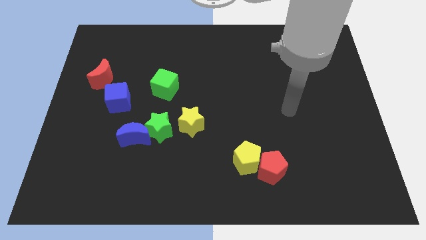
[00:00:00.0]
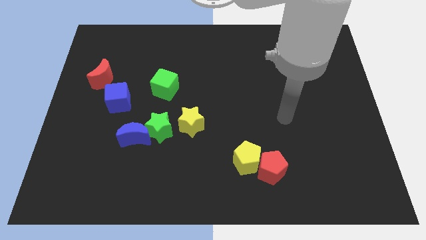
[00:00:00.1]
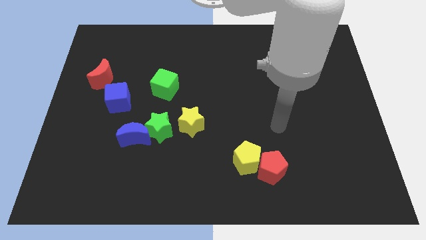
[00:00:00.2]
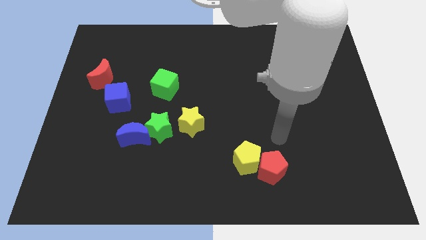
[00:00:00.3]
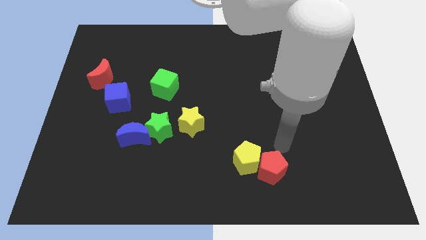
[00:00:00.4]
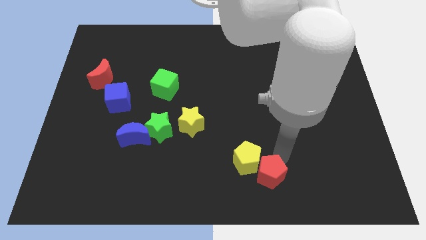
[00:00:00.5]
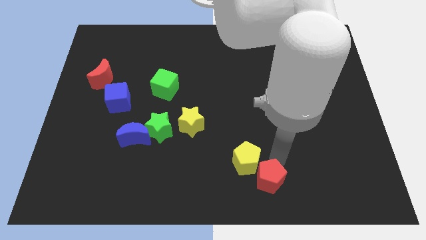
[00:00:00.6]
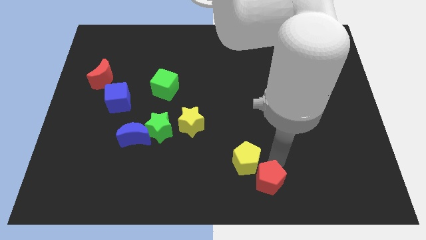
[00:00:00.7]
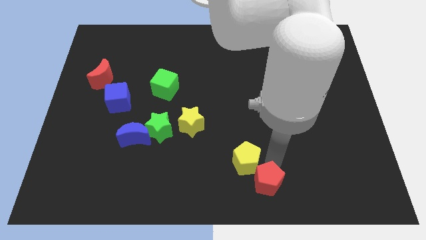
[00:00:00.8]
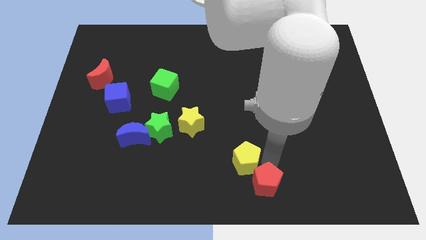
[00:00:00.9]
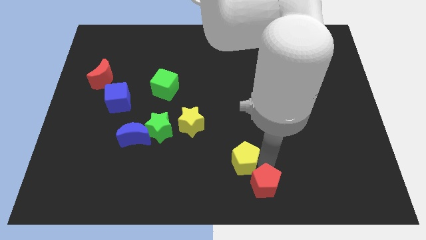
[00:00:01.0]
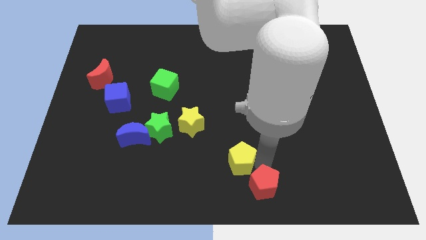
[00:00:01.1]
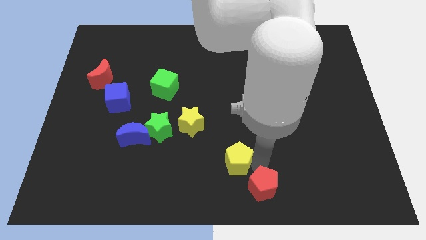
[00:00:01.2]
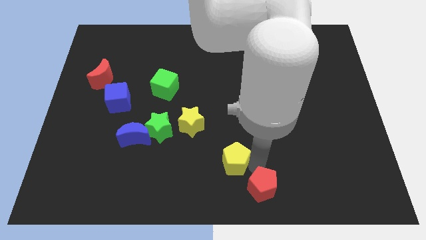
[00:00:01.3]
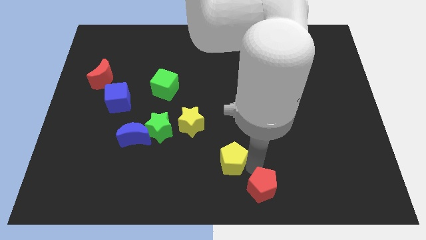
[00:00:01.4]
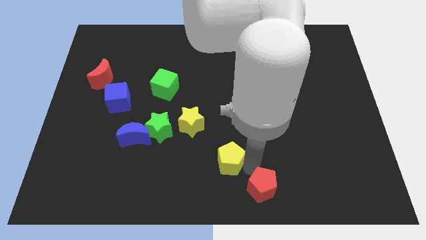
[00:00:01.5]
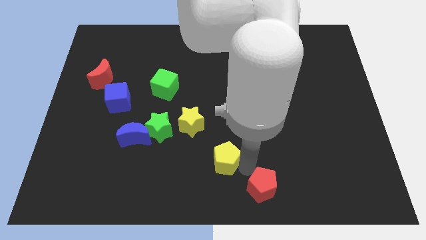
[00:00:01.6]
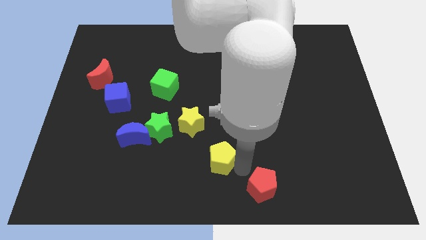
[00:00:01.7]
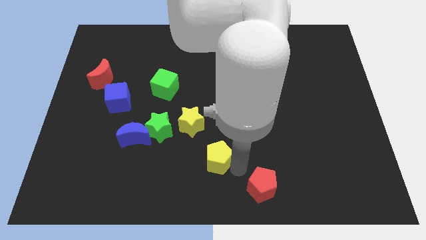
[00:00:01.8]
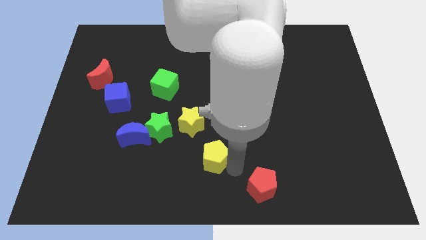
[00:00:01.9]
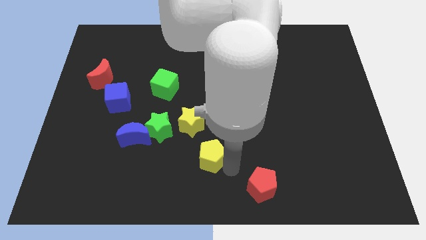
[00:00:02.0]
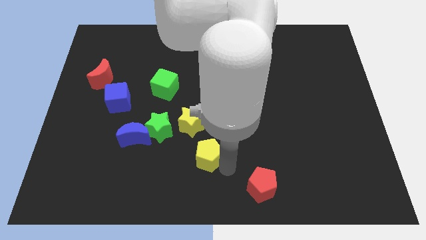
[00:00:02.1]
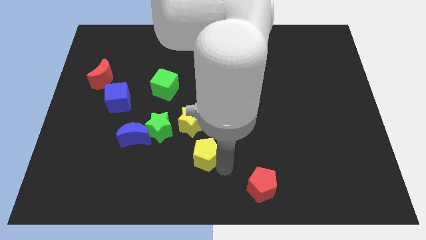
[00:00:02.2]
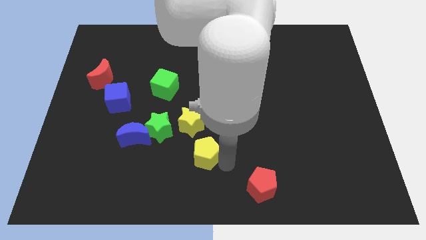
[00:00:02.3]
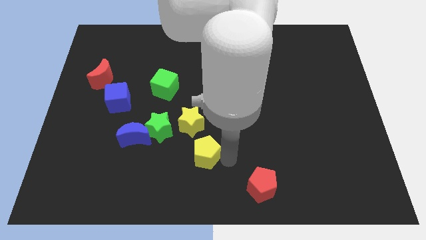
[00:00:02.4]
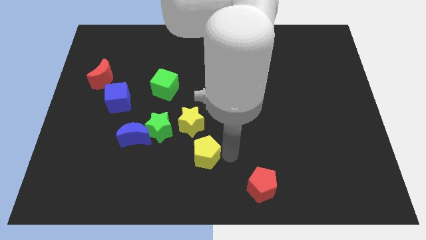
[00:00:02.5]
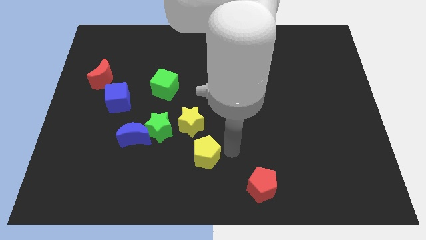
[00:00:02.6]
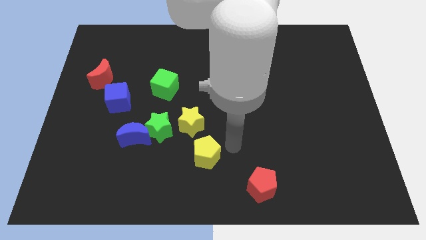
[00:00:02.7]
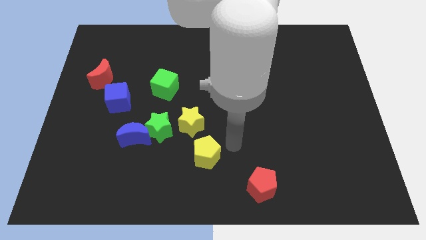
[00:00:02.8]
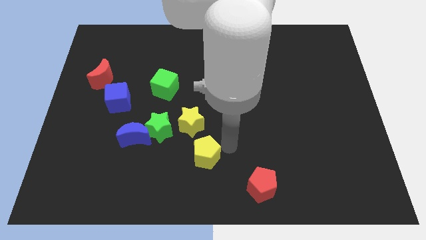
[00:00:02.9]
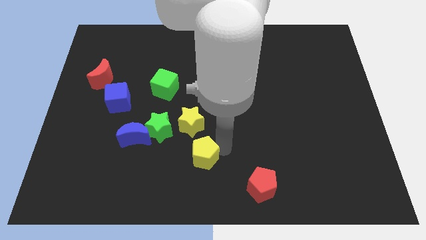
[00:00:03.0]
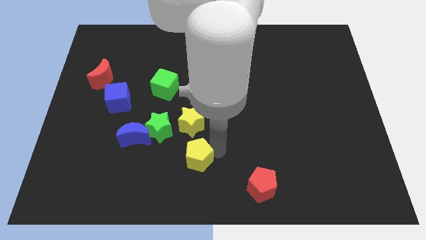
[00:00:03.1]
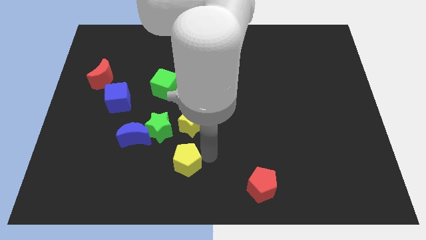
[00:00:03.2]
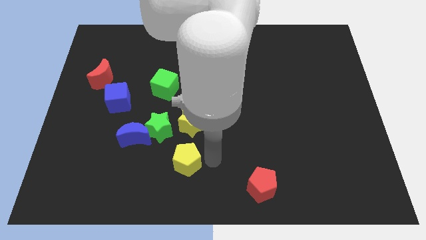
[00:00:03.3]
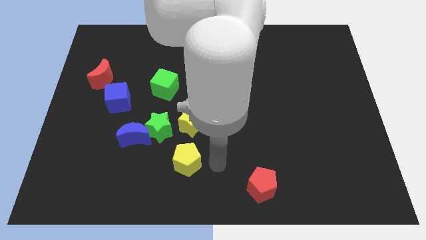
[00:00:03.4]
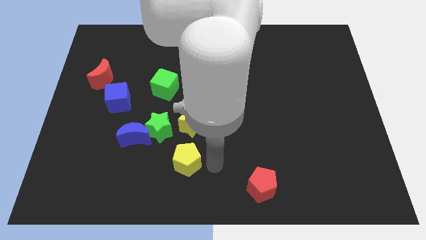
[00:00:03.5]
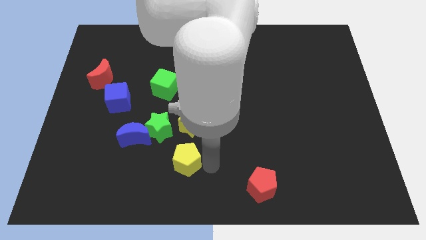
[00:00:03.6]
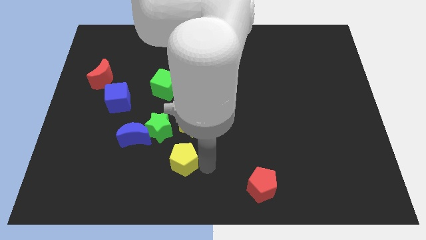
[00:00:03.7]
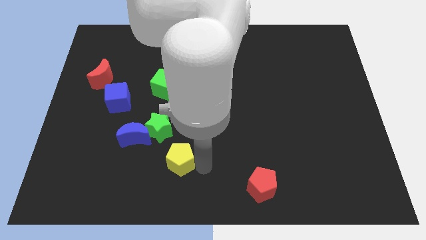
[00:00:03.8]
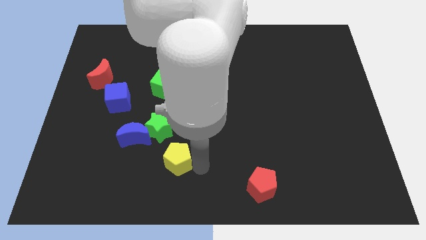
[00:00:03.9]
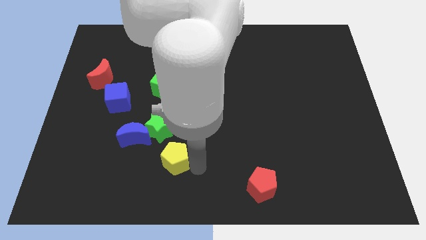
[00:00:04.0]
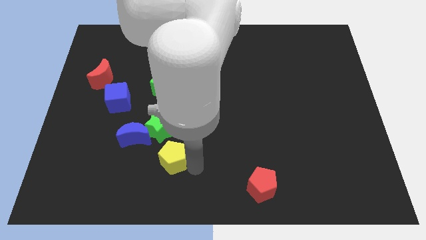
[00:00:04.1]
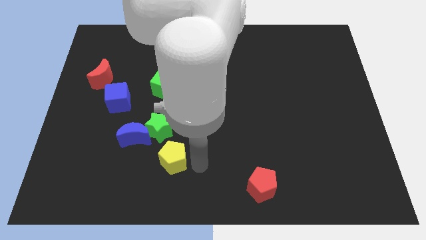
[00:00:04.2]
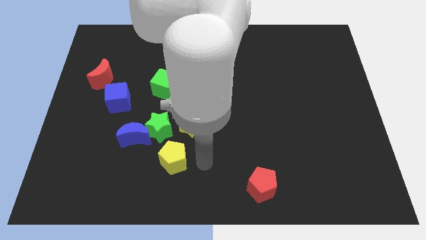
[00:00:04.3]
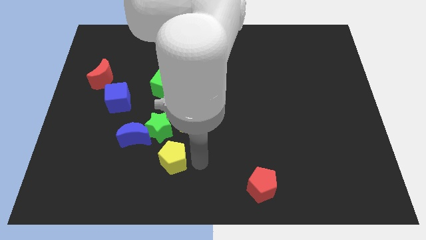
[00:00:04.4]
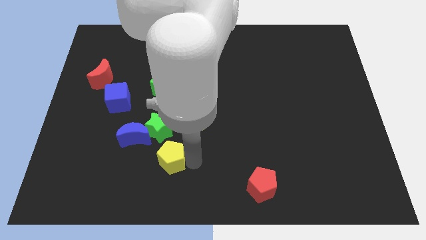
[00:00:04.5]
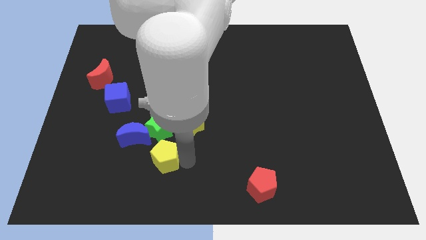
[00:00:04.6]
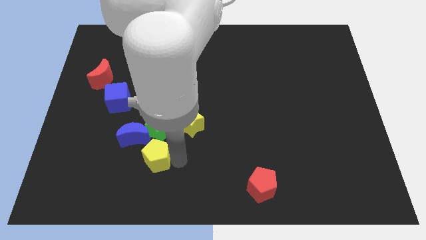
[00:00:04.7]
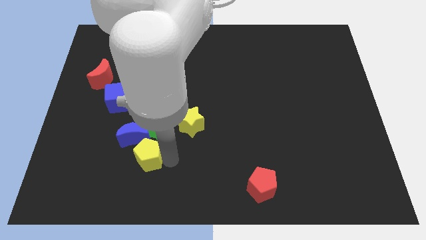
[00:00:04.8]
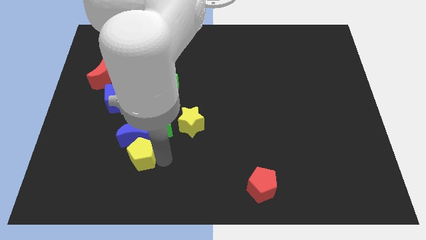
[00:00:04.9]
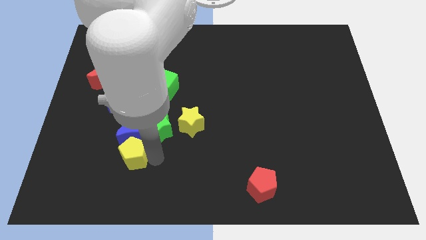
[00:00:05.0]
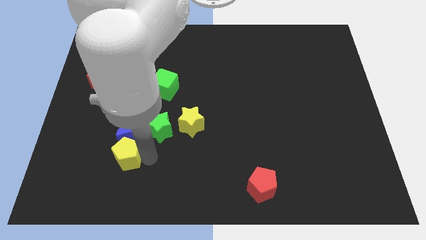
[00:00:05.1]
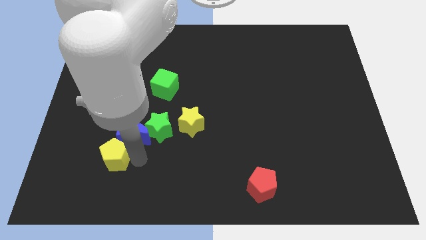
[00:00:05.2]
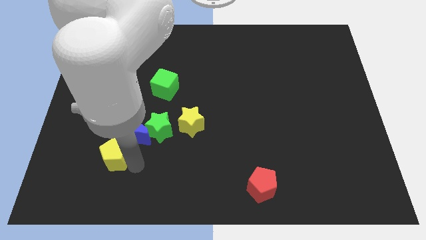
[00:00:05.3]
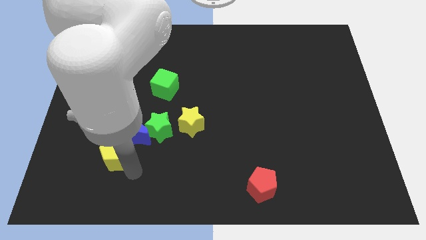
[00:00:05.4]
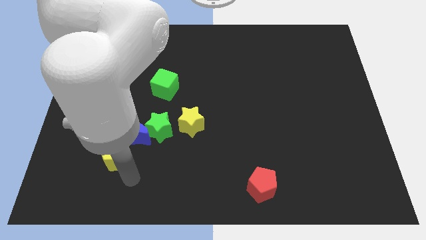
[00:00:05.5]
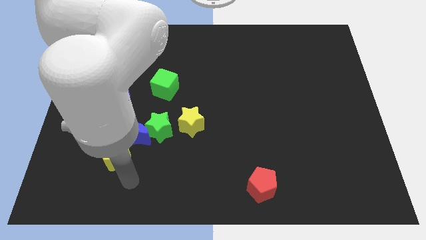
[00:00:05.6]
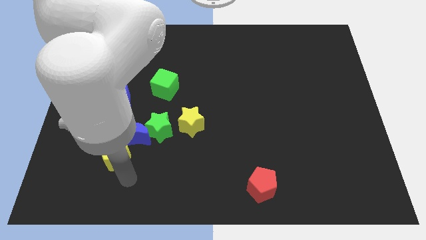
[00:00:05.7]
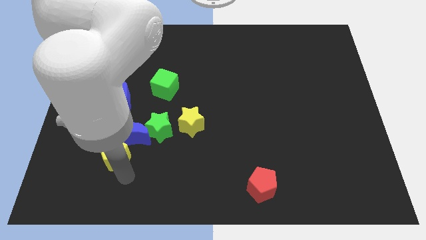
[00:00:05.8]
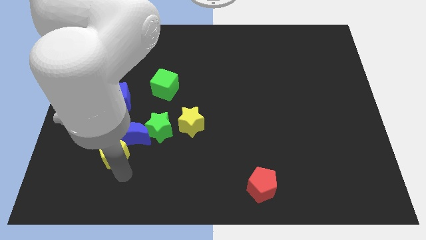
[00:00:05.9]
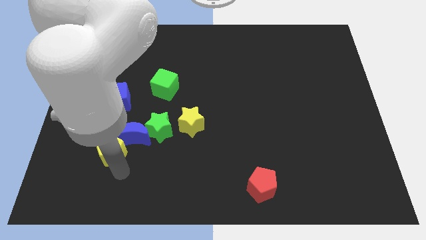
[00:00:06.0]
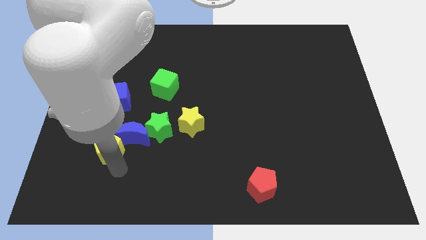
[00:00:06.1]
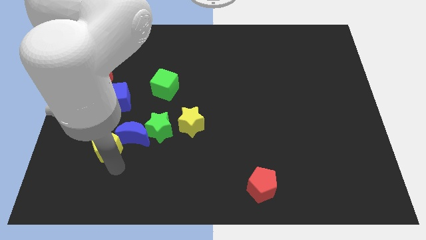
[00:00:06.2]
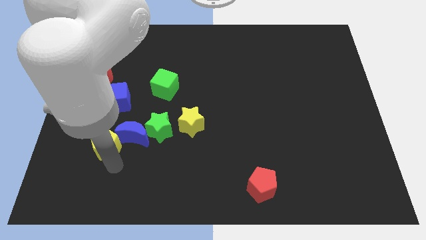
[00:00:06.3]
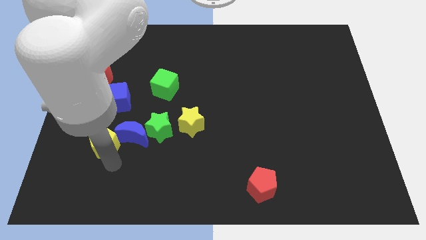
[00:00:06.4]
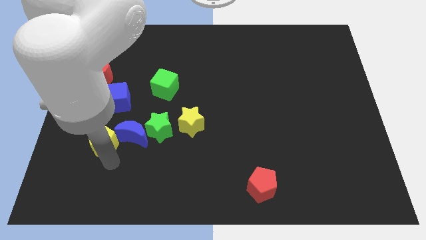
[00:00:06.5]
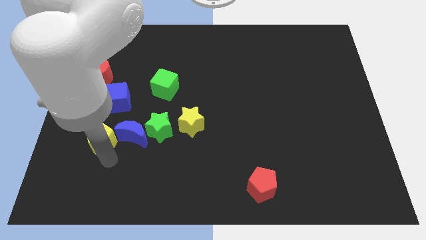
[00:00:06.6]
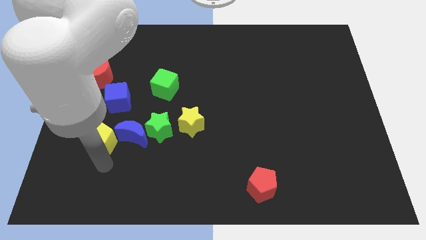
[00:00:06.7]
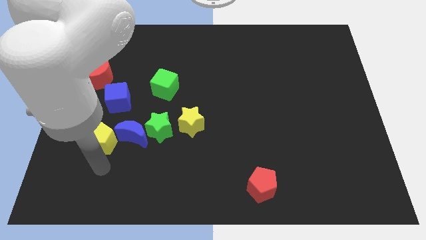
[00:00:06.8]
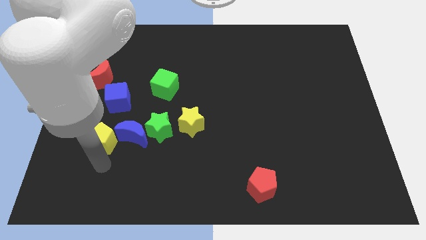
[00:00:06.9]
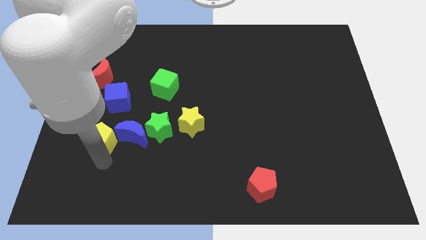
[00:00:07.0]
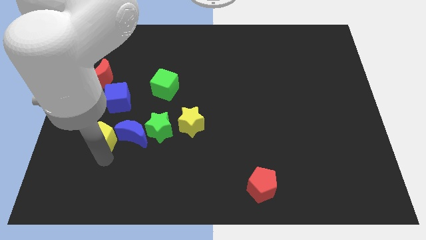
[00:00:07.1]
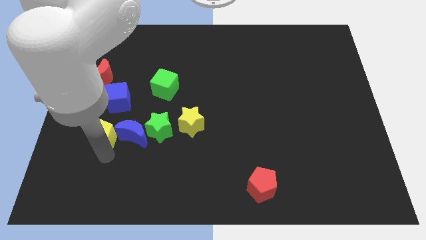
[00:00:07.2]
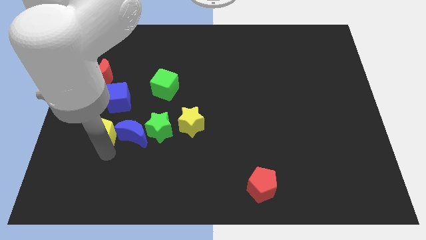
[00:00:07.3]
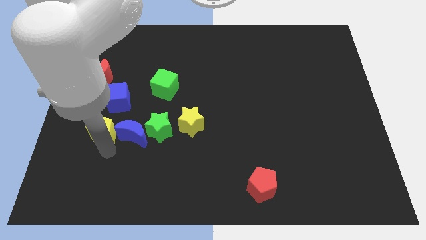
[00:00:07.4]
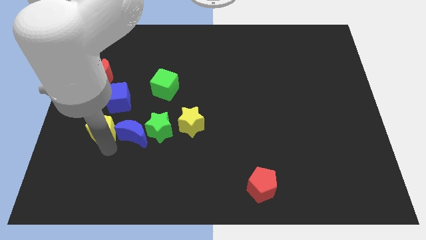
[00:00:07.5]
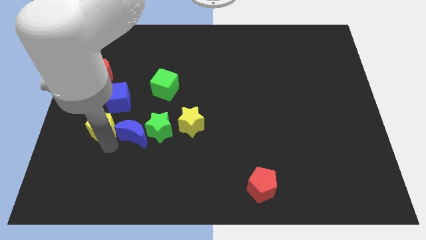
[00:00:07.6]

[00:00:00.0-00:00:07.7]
slide the yellow pentagon to the bottom of the red moon
